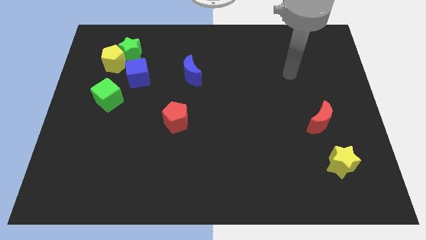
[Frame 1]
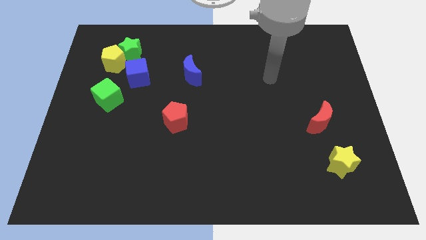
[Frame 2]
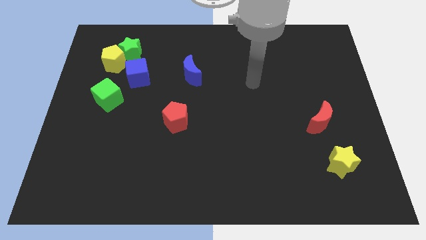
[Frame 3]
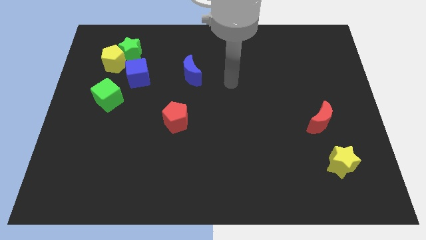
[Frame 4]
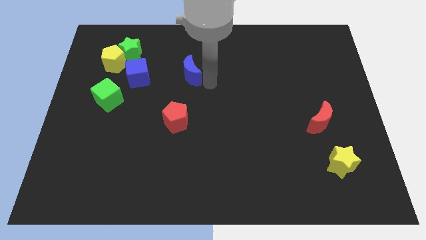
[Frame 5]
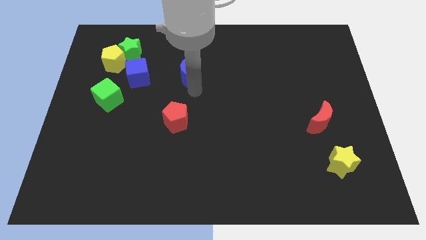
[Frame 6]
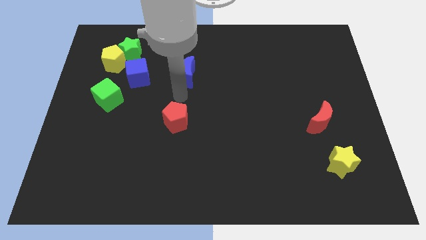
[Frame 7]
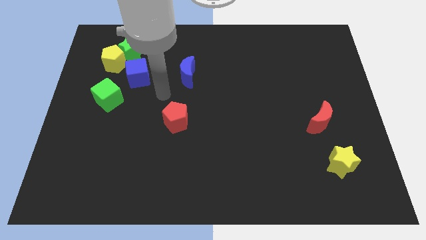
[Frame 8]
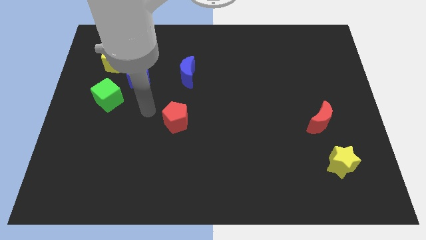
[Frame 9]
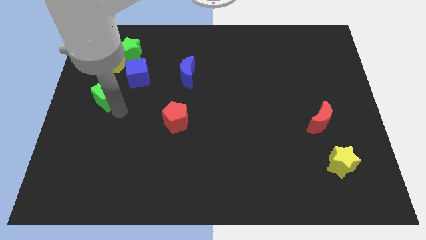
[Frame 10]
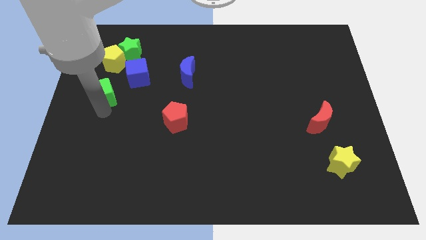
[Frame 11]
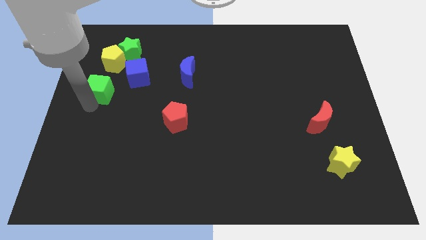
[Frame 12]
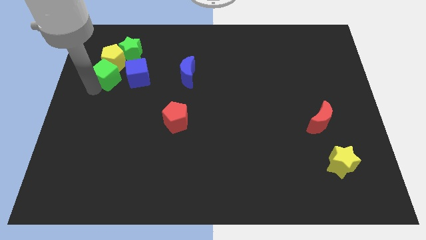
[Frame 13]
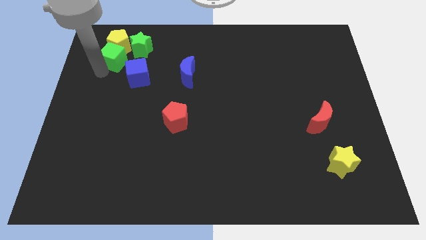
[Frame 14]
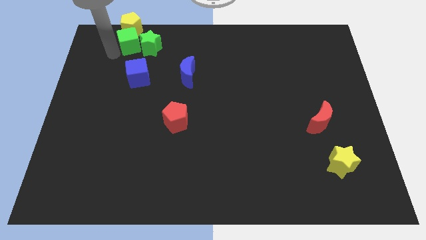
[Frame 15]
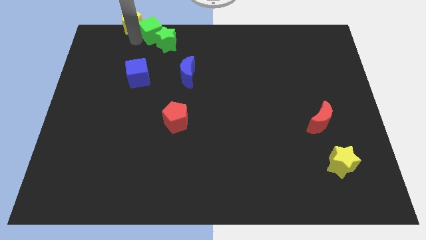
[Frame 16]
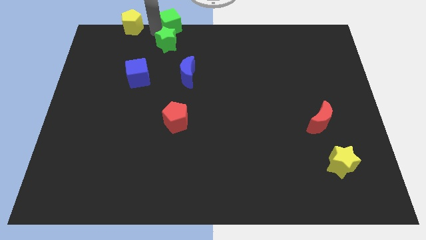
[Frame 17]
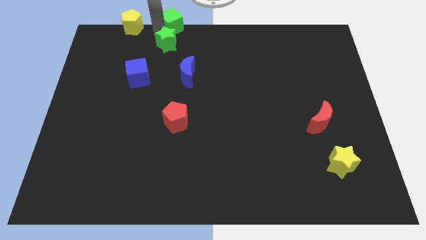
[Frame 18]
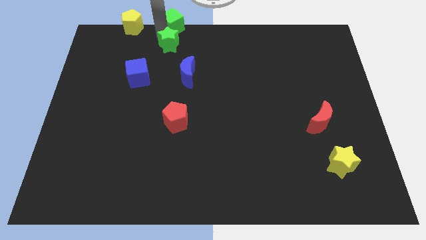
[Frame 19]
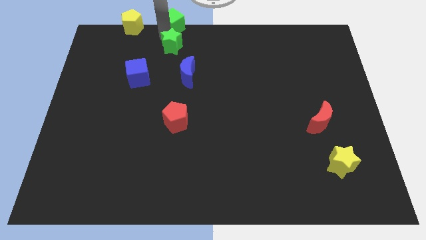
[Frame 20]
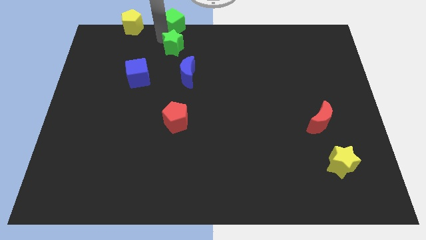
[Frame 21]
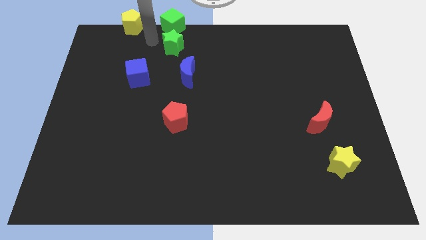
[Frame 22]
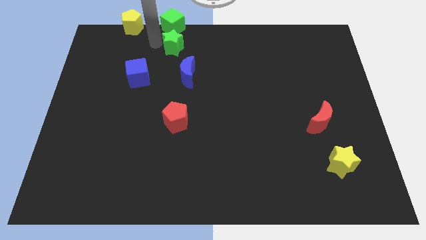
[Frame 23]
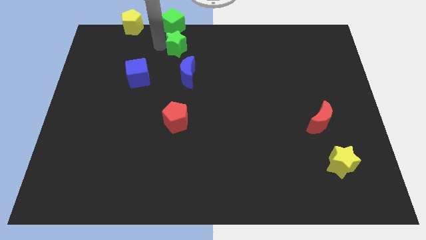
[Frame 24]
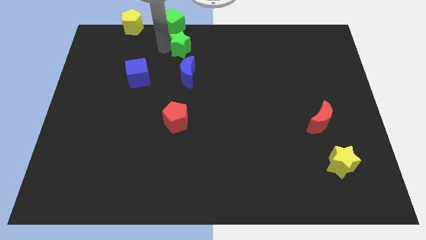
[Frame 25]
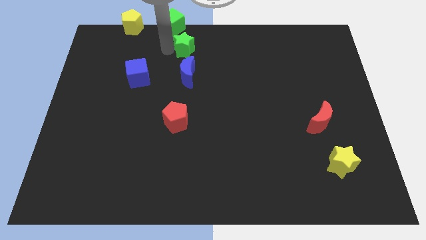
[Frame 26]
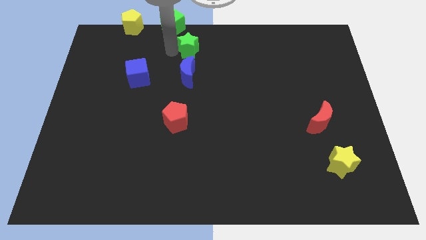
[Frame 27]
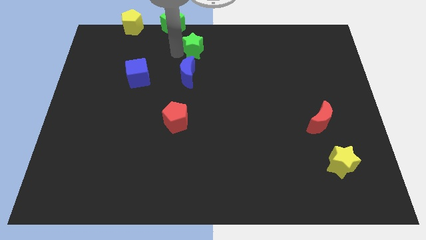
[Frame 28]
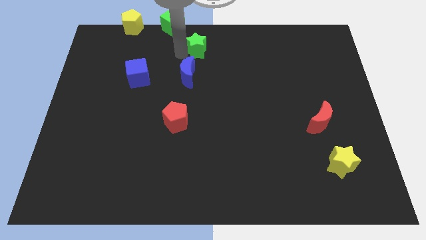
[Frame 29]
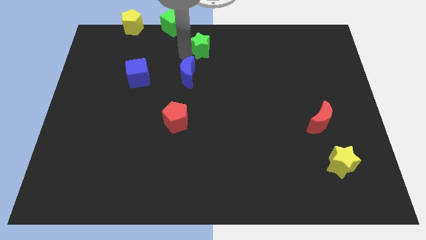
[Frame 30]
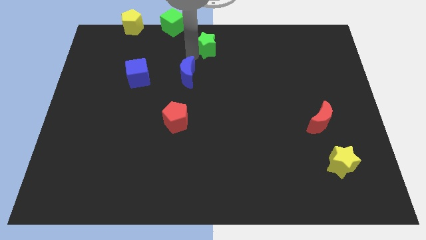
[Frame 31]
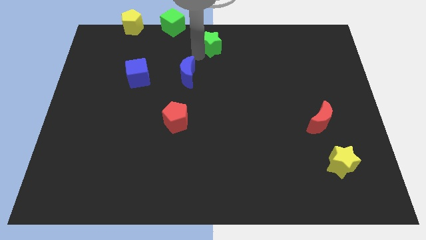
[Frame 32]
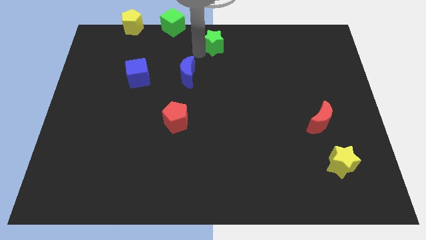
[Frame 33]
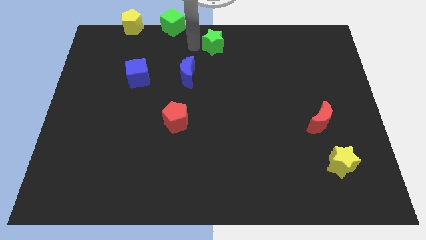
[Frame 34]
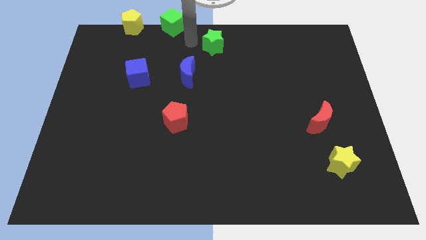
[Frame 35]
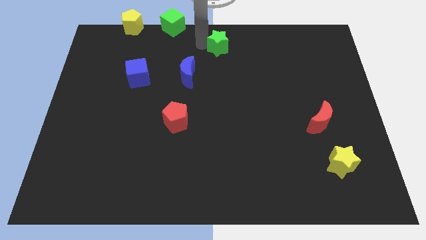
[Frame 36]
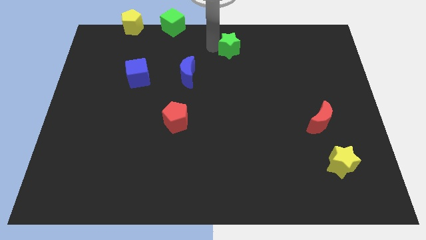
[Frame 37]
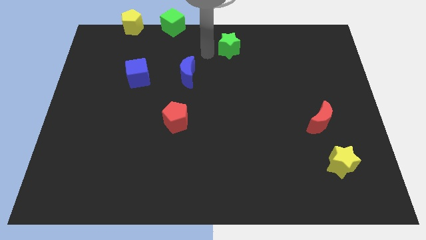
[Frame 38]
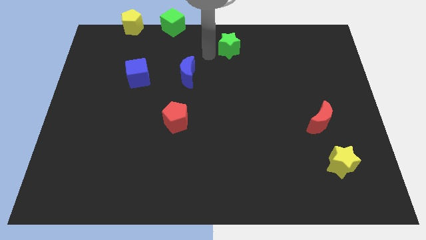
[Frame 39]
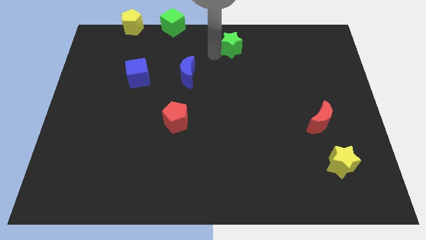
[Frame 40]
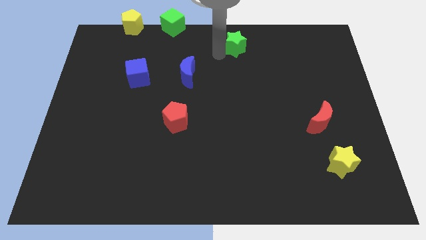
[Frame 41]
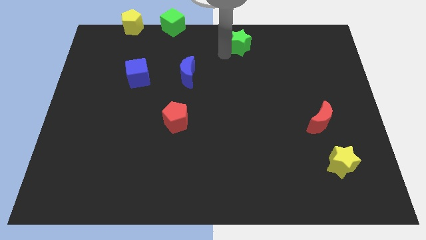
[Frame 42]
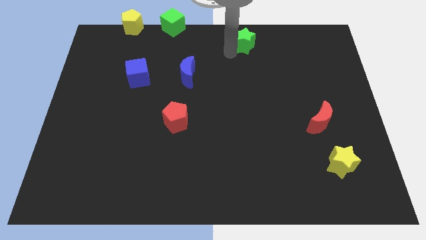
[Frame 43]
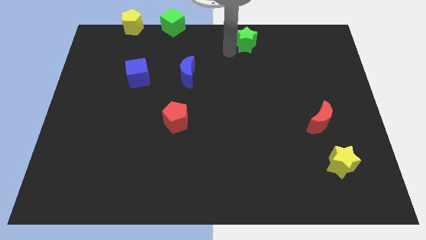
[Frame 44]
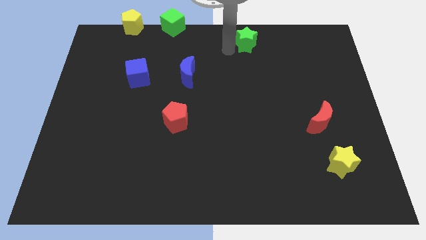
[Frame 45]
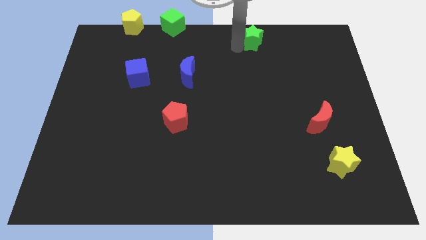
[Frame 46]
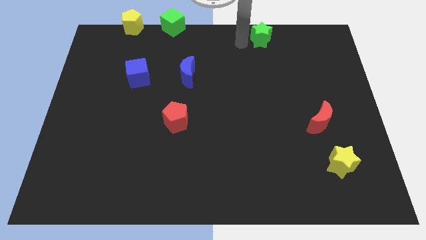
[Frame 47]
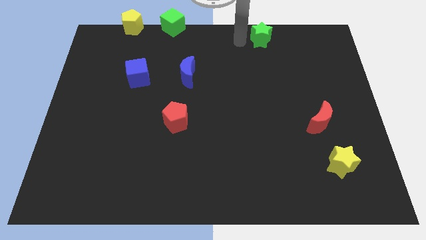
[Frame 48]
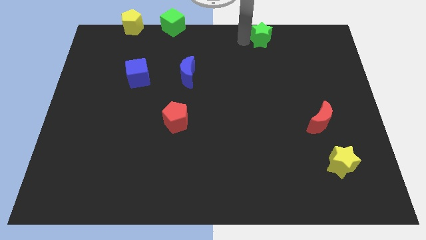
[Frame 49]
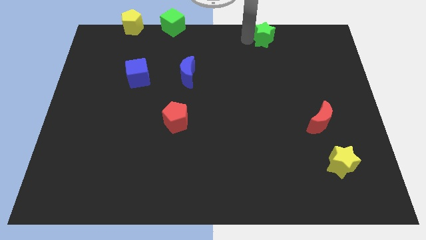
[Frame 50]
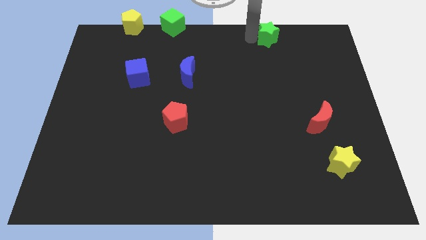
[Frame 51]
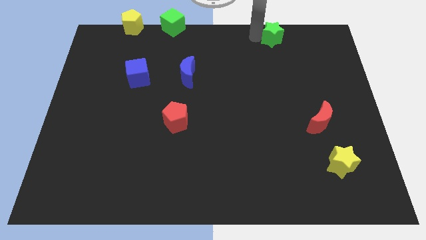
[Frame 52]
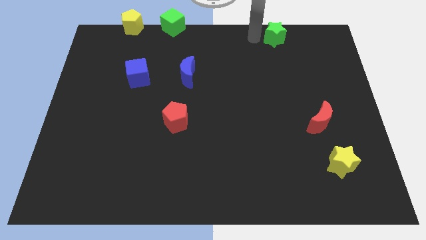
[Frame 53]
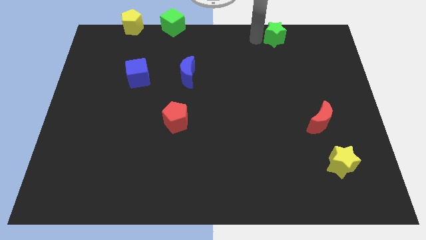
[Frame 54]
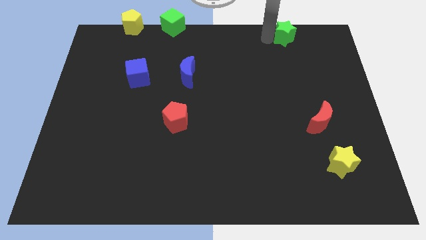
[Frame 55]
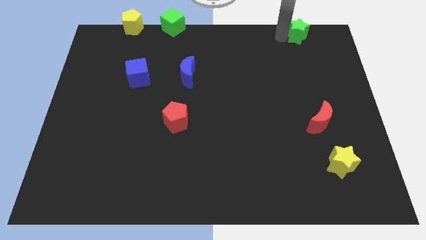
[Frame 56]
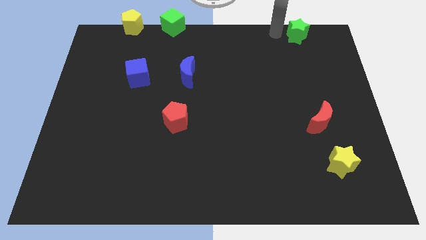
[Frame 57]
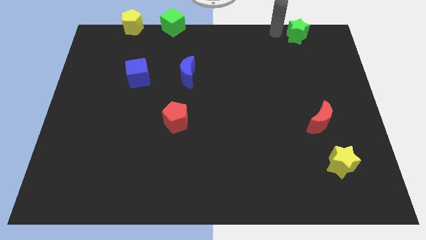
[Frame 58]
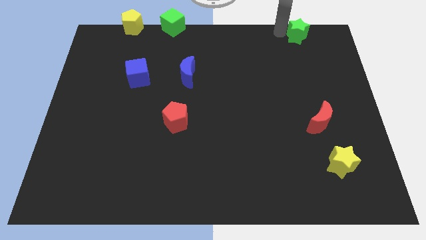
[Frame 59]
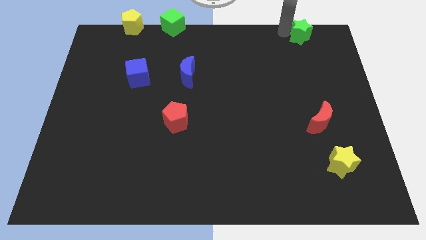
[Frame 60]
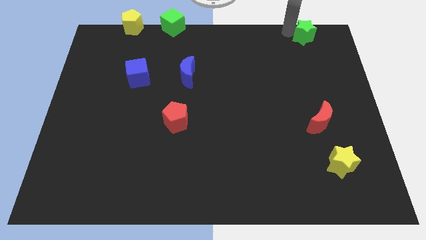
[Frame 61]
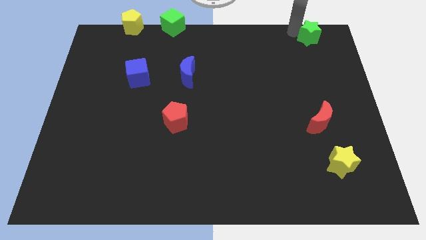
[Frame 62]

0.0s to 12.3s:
slide the green star to the upper right corner
